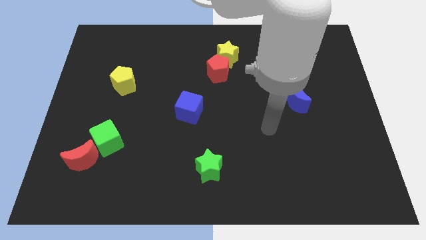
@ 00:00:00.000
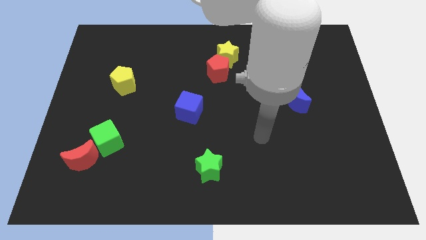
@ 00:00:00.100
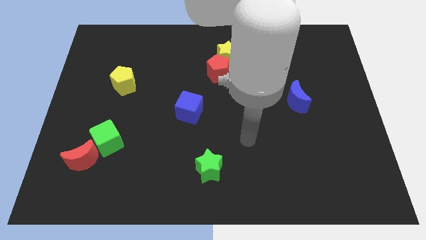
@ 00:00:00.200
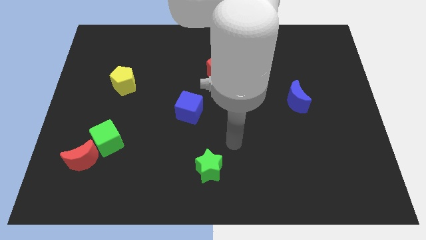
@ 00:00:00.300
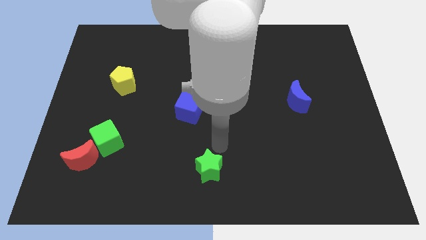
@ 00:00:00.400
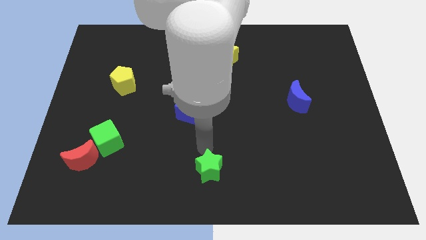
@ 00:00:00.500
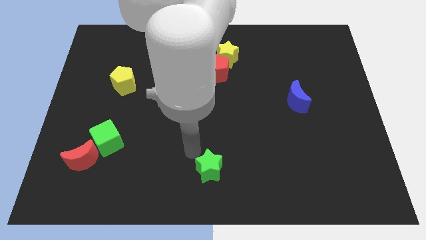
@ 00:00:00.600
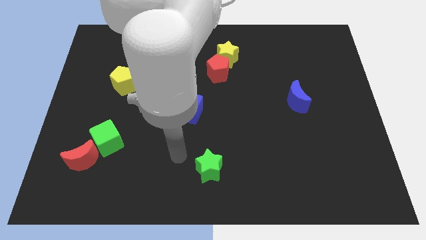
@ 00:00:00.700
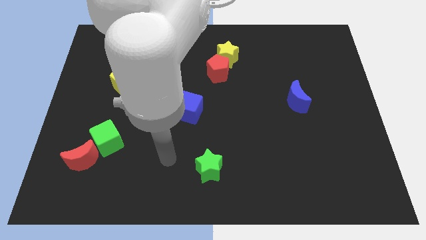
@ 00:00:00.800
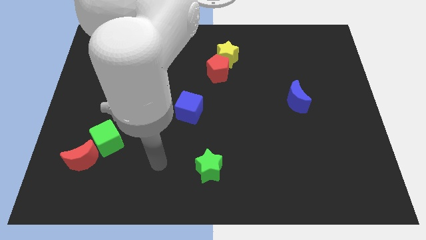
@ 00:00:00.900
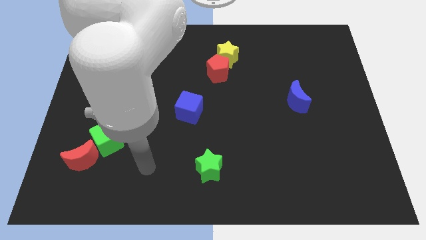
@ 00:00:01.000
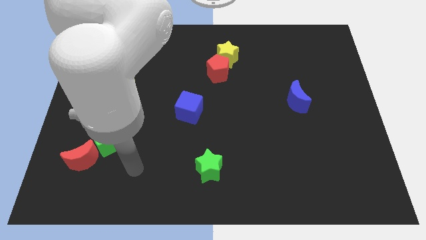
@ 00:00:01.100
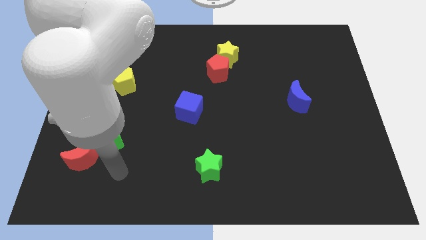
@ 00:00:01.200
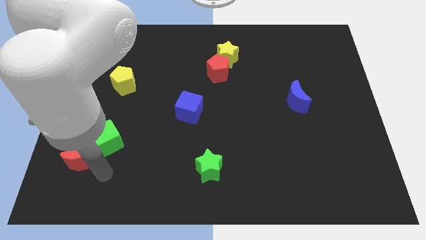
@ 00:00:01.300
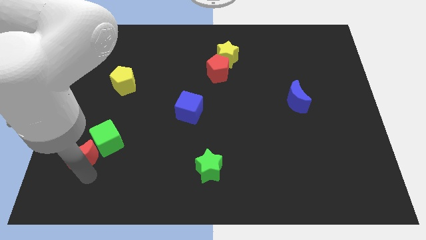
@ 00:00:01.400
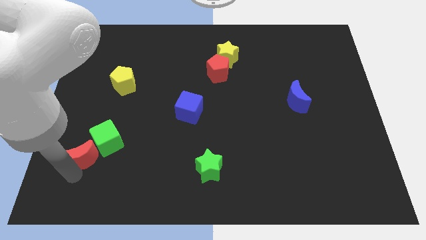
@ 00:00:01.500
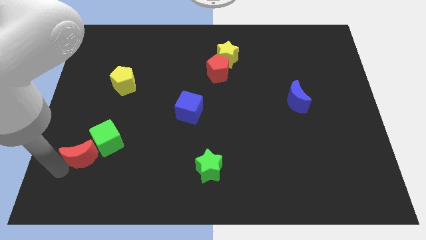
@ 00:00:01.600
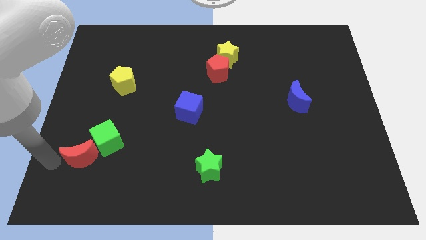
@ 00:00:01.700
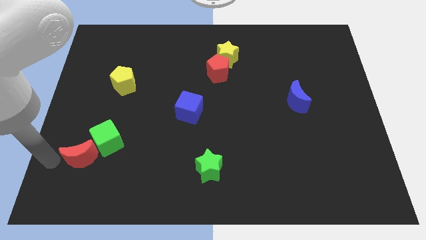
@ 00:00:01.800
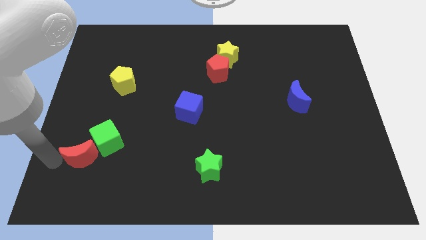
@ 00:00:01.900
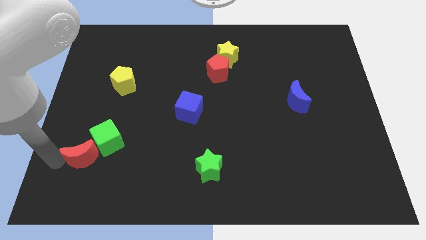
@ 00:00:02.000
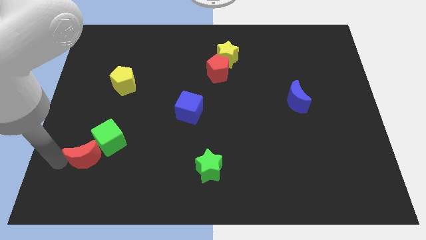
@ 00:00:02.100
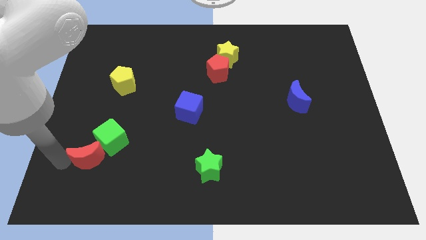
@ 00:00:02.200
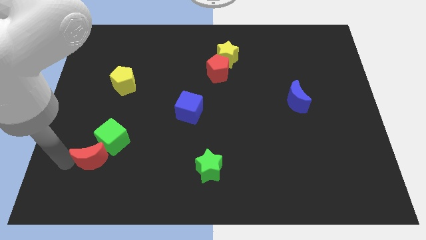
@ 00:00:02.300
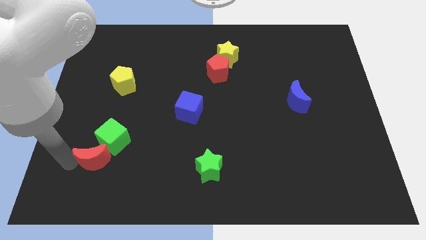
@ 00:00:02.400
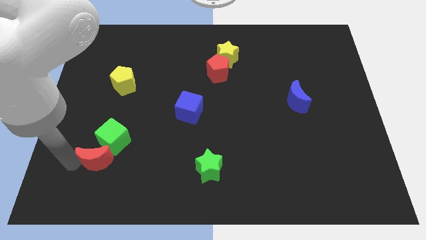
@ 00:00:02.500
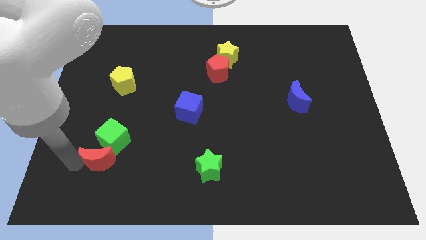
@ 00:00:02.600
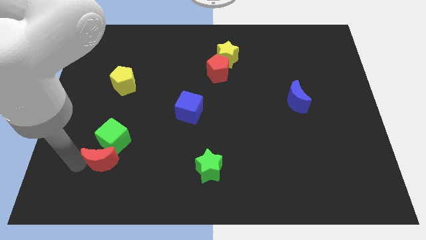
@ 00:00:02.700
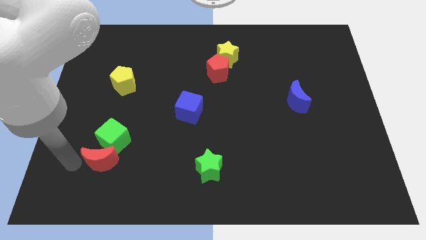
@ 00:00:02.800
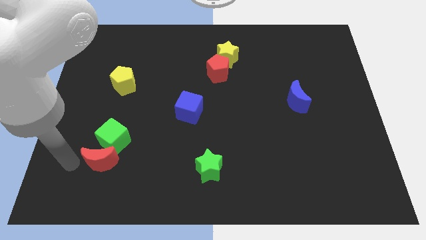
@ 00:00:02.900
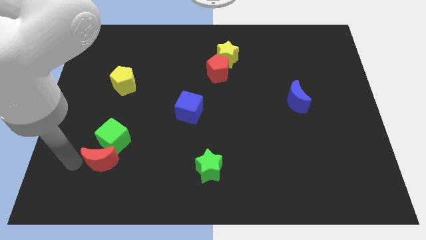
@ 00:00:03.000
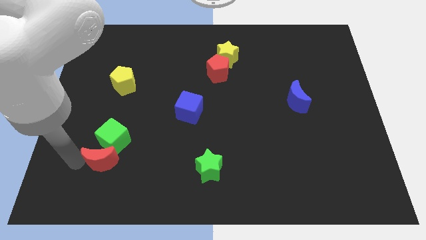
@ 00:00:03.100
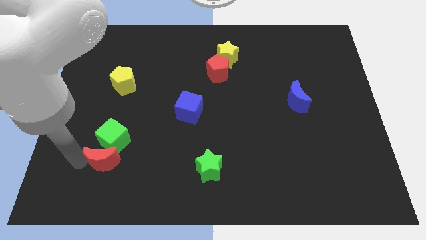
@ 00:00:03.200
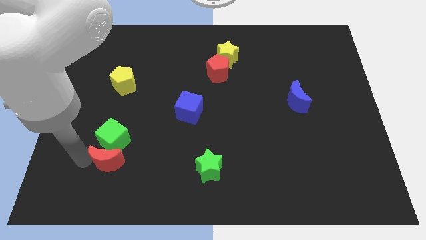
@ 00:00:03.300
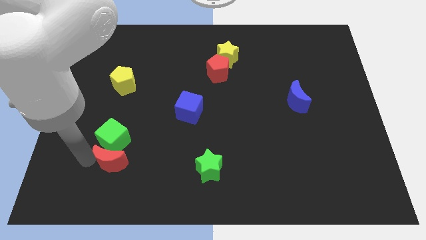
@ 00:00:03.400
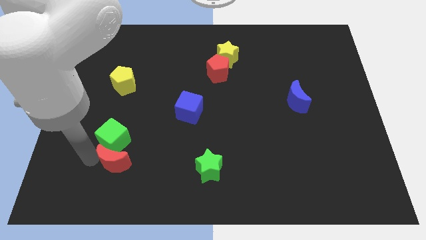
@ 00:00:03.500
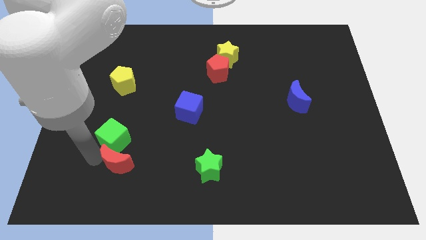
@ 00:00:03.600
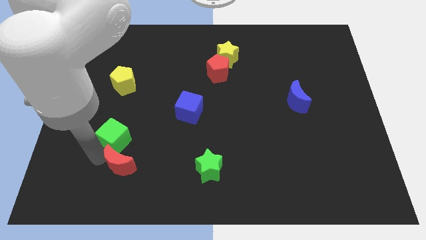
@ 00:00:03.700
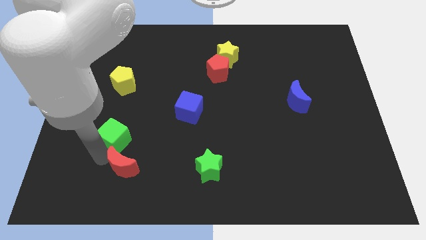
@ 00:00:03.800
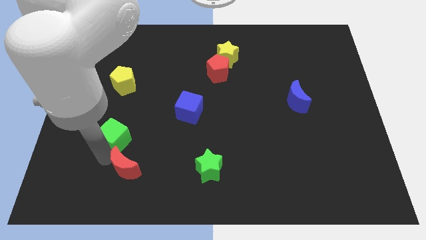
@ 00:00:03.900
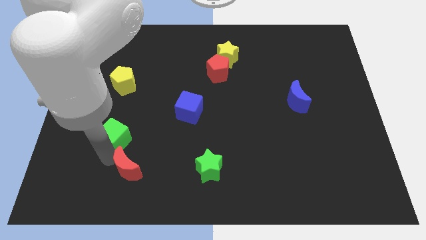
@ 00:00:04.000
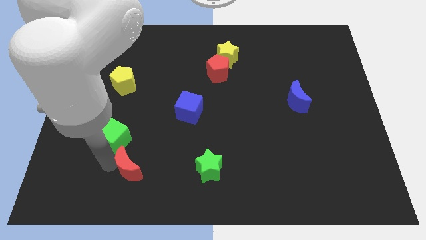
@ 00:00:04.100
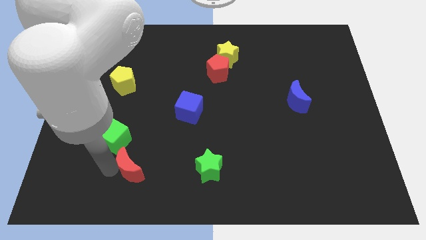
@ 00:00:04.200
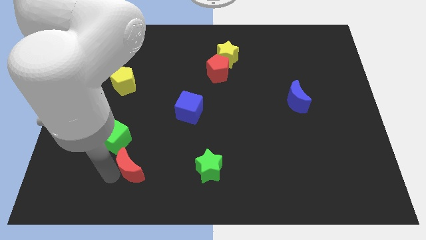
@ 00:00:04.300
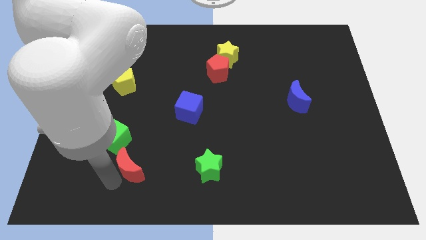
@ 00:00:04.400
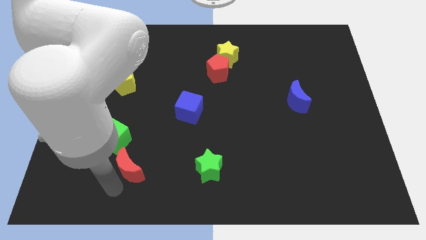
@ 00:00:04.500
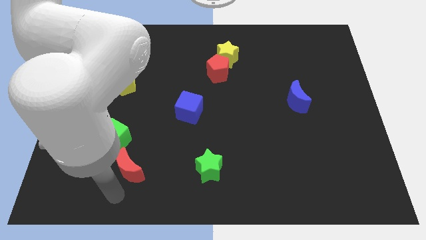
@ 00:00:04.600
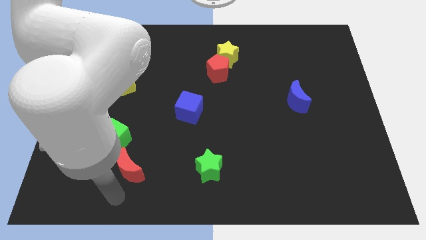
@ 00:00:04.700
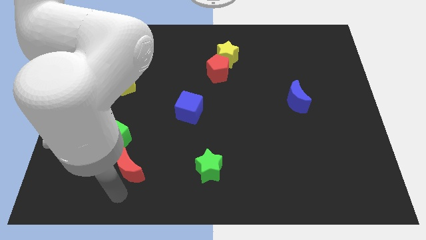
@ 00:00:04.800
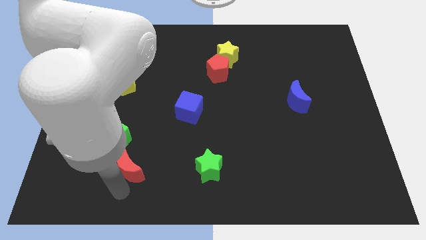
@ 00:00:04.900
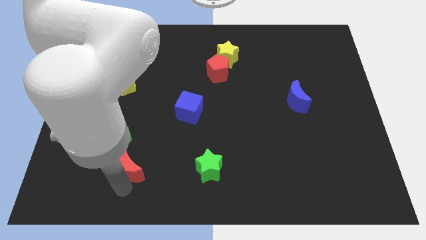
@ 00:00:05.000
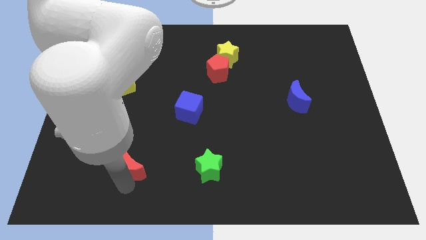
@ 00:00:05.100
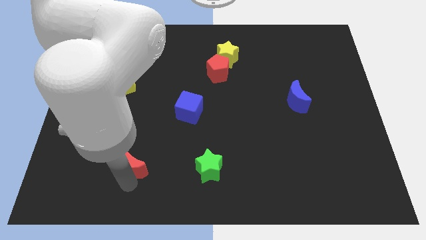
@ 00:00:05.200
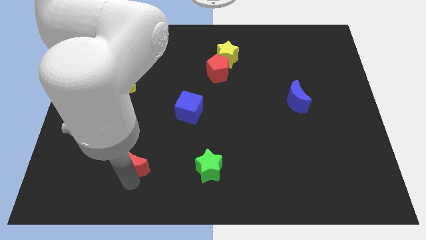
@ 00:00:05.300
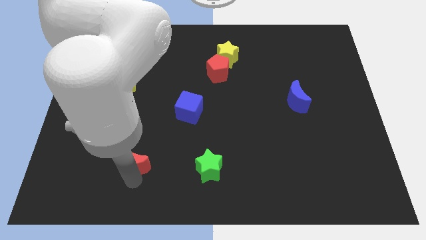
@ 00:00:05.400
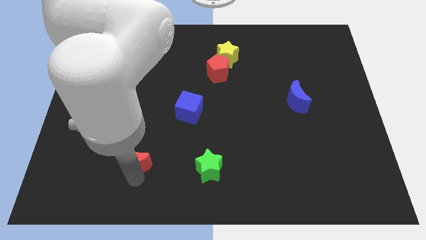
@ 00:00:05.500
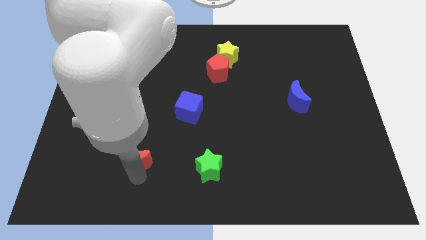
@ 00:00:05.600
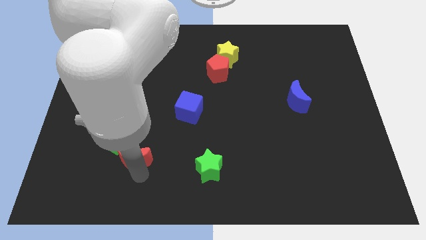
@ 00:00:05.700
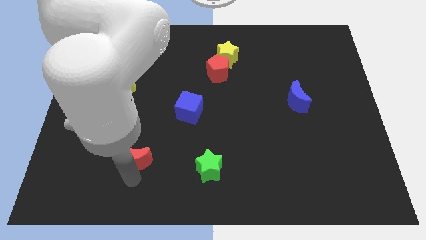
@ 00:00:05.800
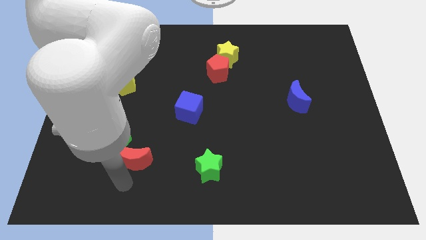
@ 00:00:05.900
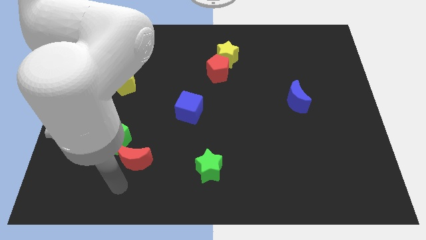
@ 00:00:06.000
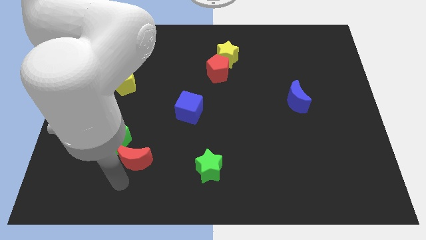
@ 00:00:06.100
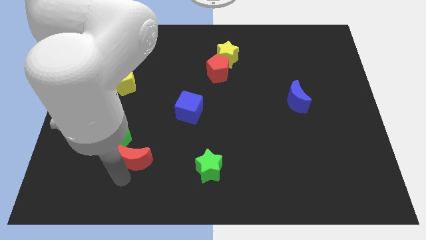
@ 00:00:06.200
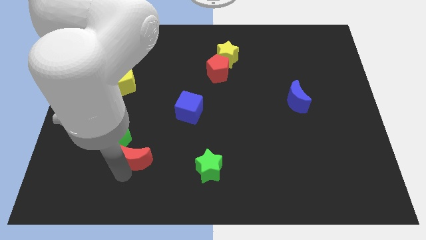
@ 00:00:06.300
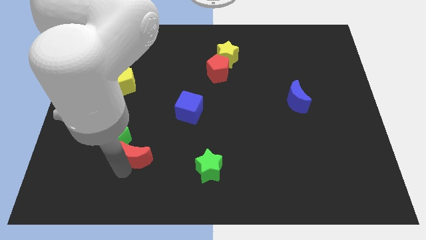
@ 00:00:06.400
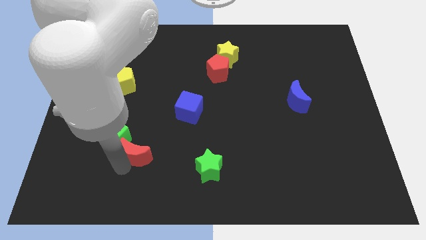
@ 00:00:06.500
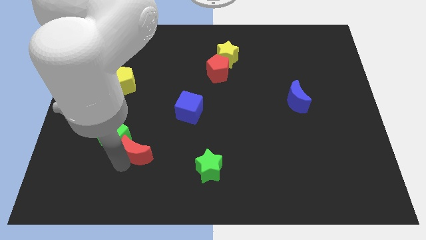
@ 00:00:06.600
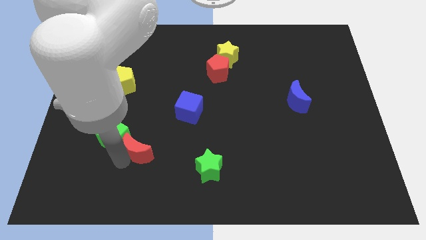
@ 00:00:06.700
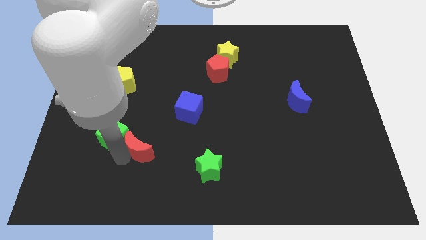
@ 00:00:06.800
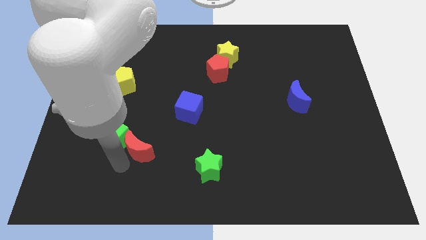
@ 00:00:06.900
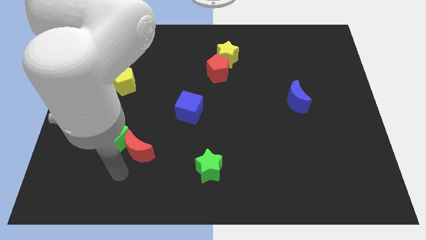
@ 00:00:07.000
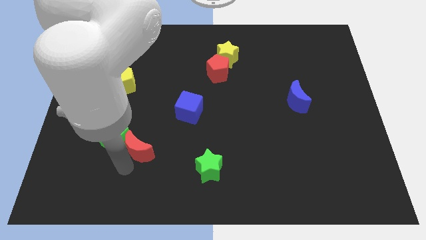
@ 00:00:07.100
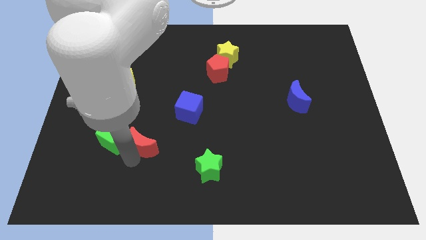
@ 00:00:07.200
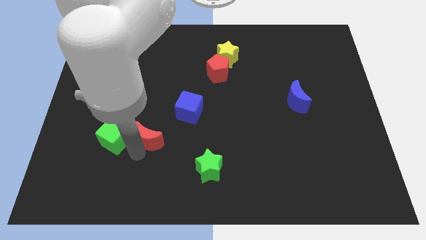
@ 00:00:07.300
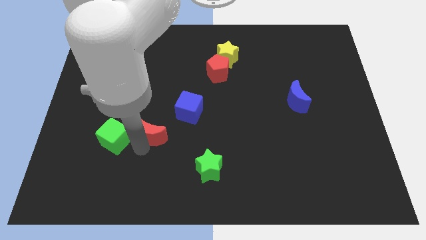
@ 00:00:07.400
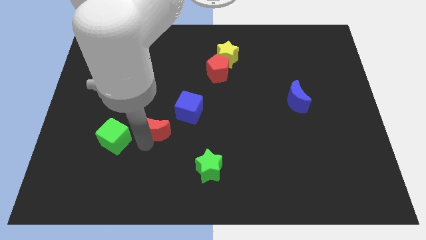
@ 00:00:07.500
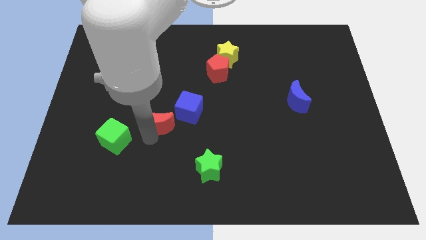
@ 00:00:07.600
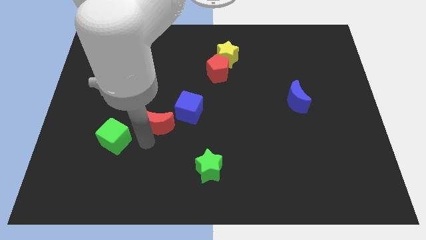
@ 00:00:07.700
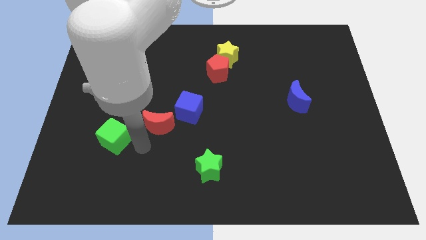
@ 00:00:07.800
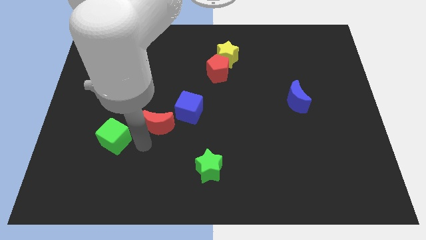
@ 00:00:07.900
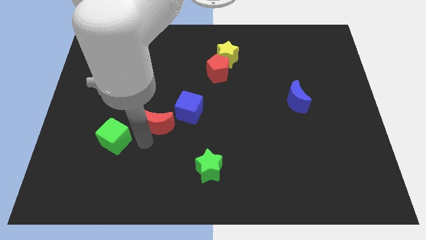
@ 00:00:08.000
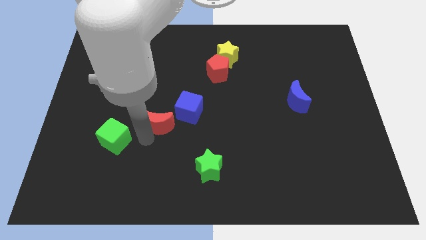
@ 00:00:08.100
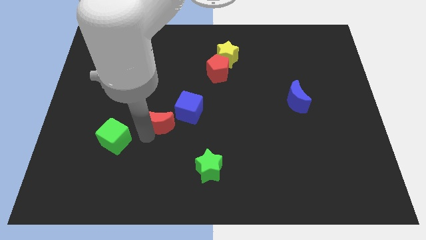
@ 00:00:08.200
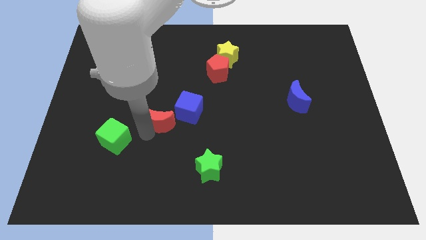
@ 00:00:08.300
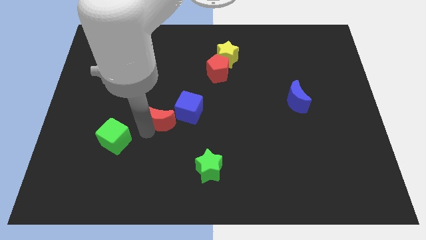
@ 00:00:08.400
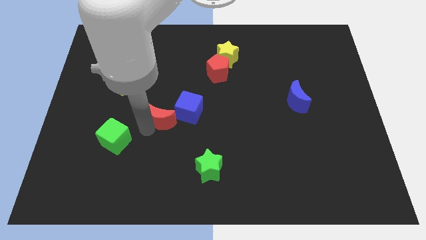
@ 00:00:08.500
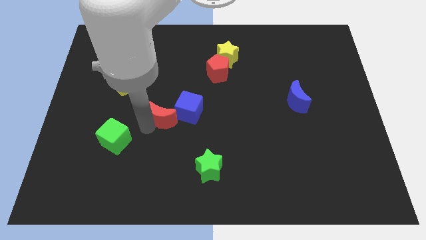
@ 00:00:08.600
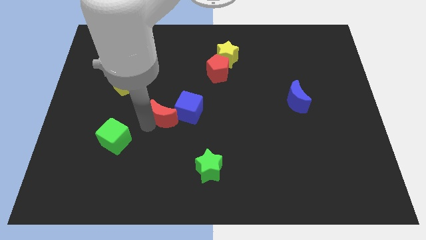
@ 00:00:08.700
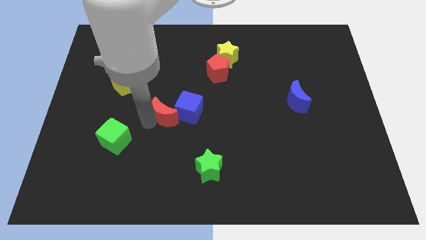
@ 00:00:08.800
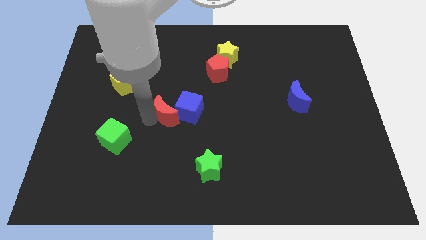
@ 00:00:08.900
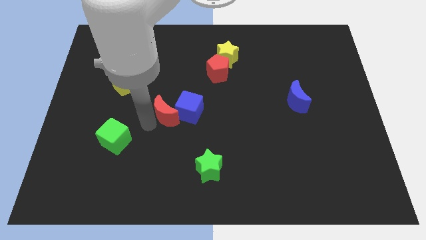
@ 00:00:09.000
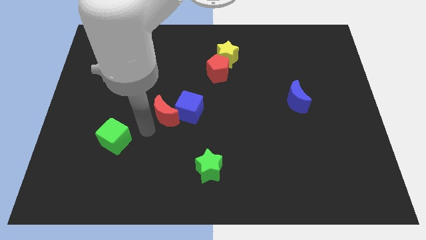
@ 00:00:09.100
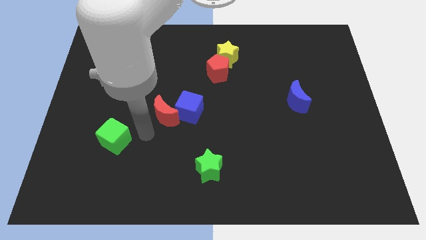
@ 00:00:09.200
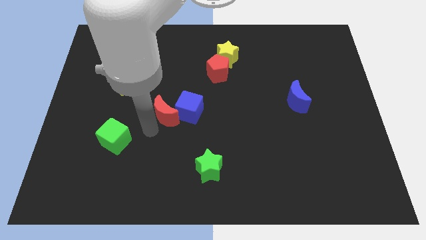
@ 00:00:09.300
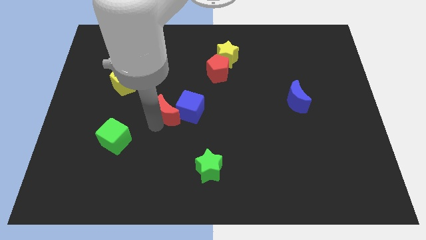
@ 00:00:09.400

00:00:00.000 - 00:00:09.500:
move the red moon up and right diagonally
